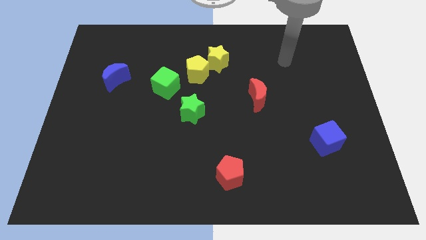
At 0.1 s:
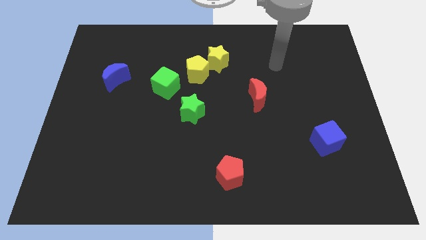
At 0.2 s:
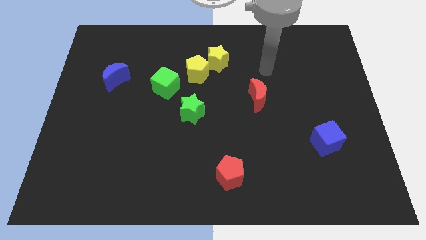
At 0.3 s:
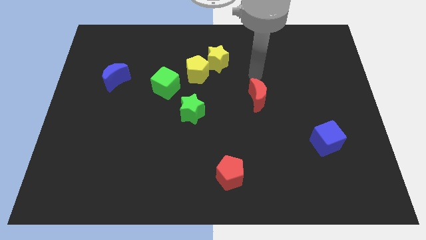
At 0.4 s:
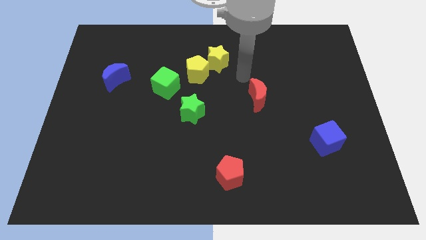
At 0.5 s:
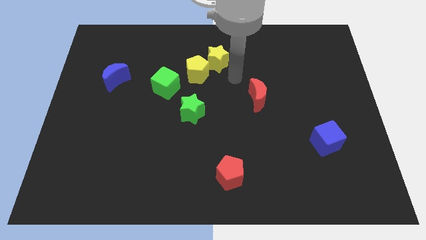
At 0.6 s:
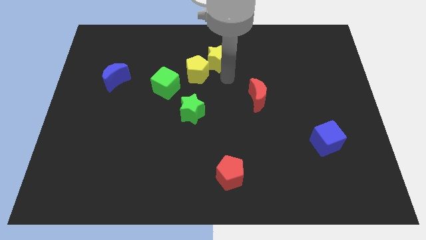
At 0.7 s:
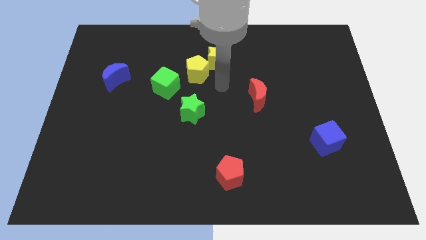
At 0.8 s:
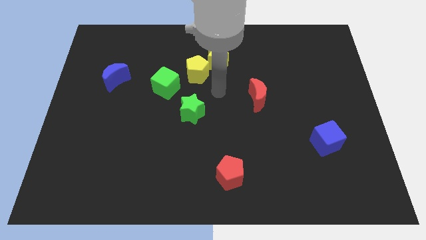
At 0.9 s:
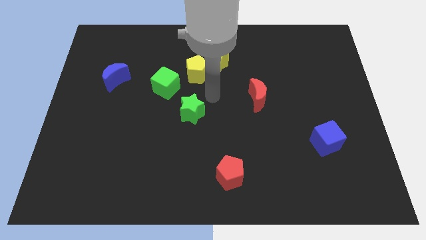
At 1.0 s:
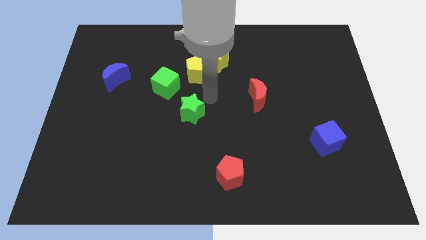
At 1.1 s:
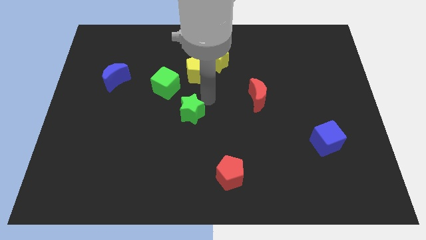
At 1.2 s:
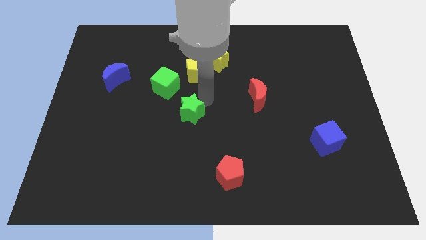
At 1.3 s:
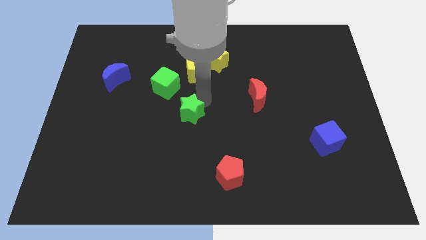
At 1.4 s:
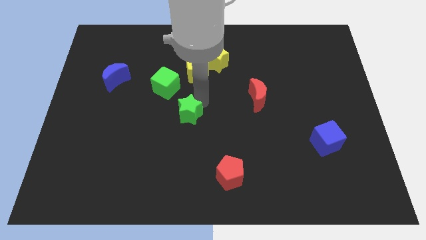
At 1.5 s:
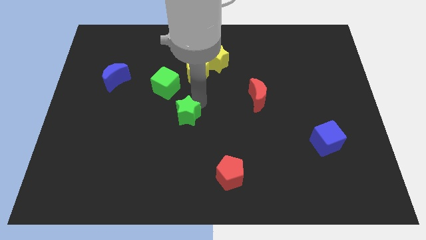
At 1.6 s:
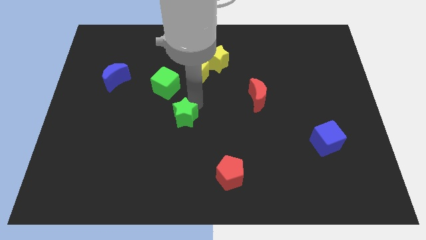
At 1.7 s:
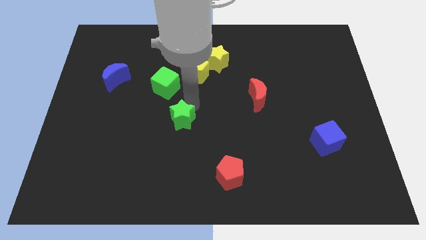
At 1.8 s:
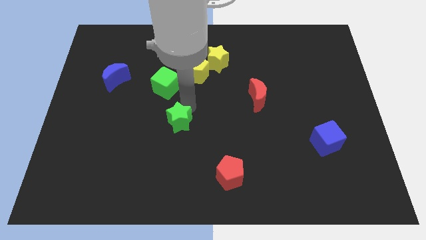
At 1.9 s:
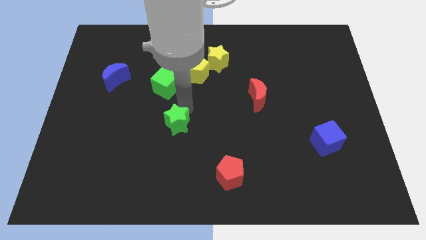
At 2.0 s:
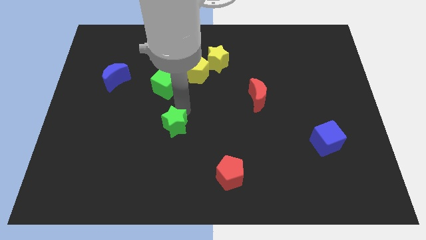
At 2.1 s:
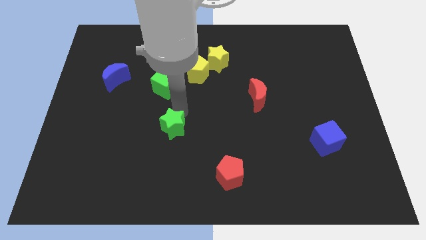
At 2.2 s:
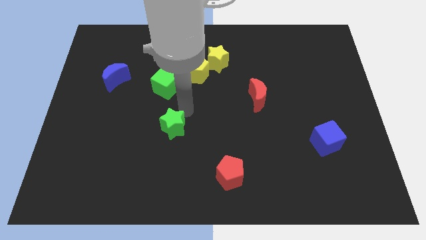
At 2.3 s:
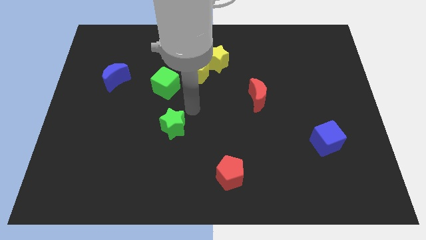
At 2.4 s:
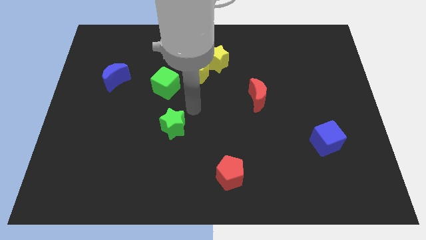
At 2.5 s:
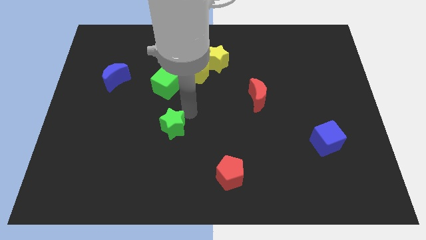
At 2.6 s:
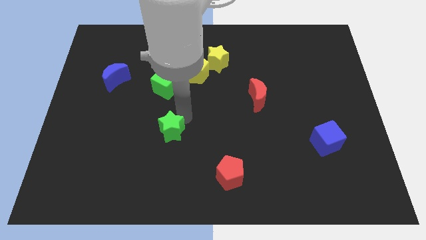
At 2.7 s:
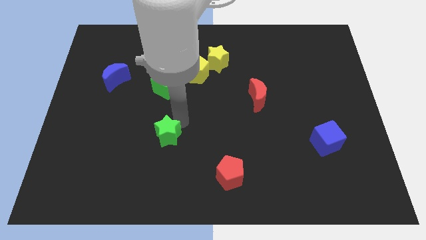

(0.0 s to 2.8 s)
slide the green star downwards and left diagonally somewhat

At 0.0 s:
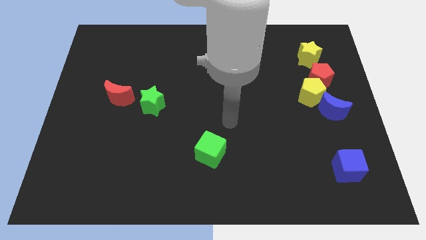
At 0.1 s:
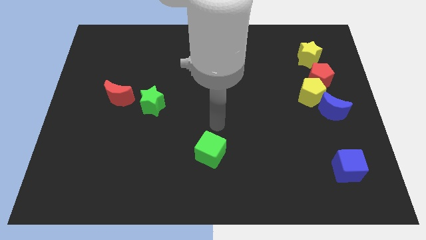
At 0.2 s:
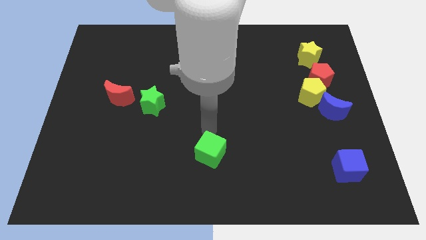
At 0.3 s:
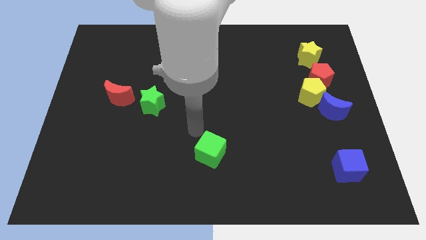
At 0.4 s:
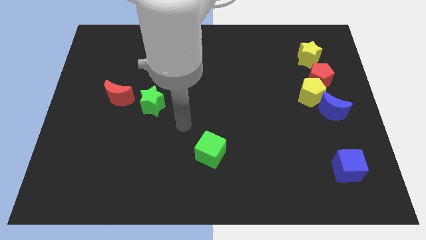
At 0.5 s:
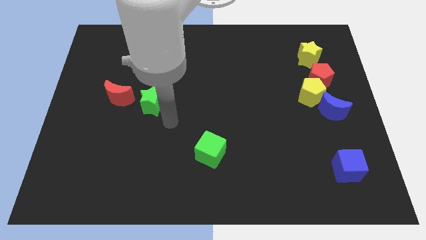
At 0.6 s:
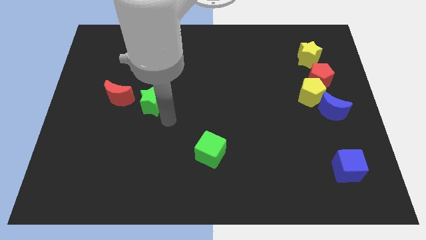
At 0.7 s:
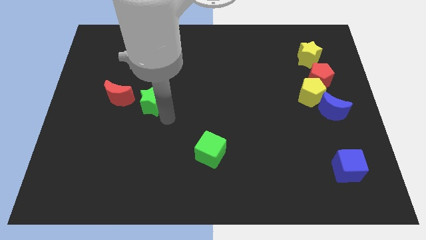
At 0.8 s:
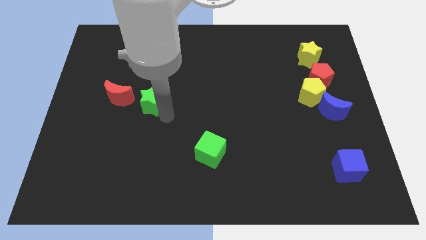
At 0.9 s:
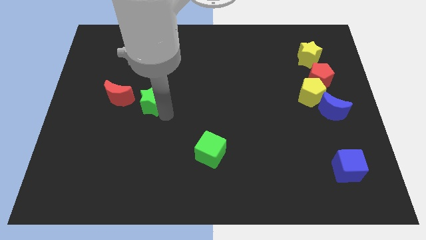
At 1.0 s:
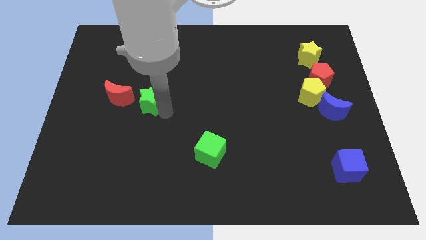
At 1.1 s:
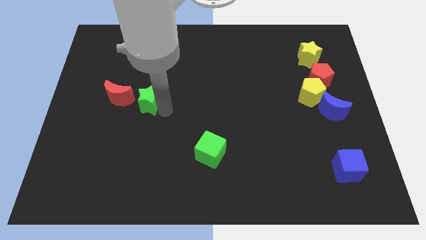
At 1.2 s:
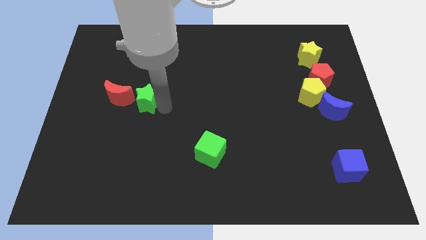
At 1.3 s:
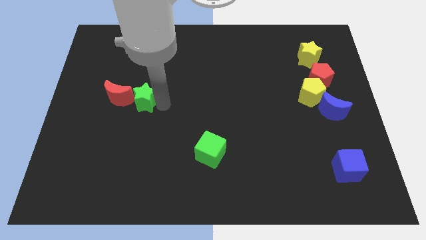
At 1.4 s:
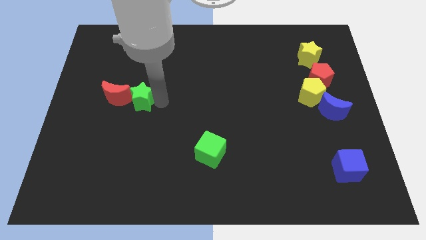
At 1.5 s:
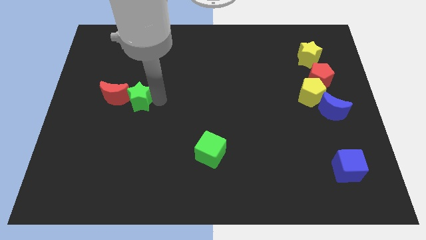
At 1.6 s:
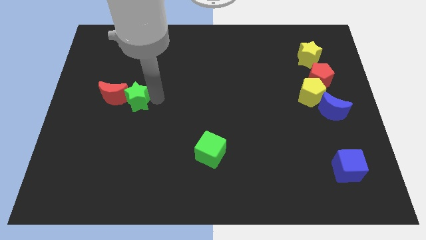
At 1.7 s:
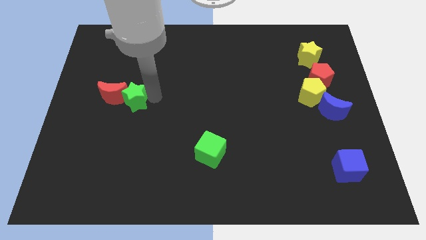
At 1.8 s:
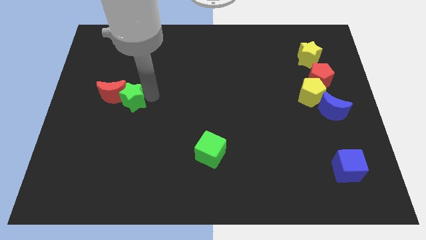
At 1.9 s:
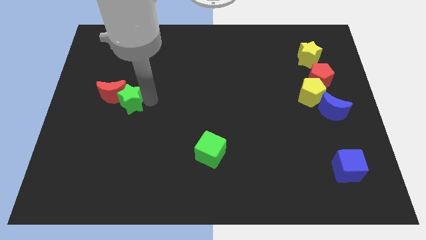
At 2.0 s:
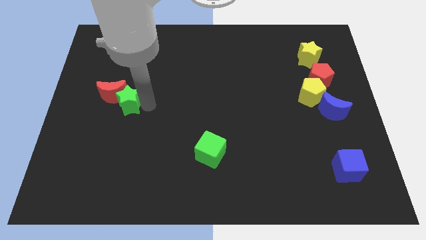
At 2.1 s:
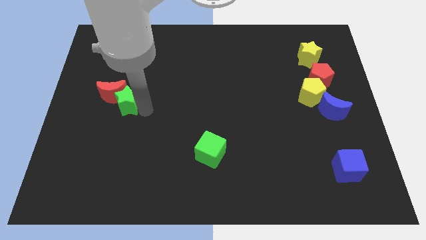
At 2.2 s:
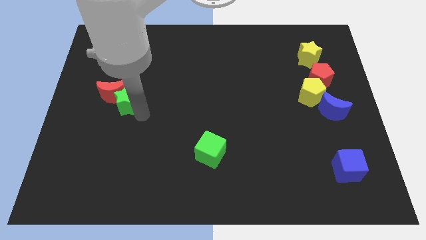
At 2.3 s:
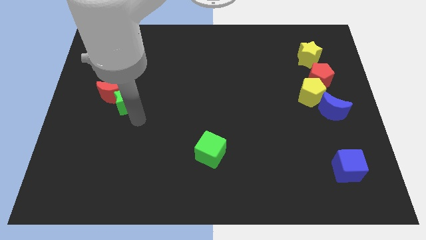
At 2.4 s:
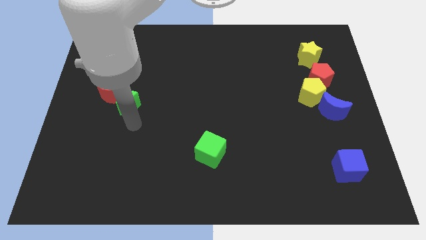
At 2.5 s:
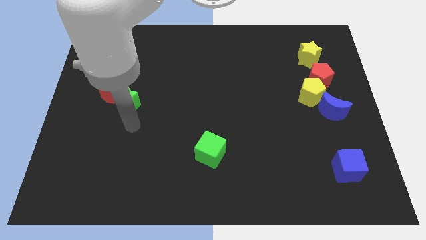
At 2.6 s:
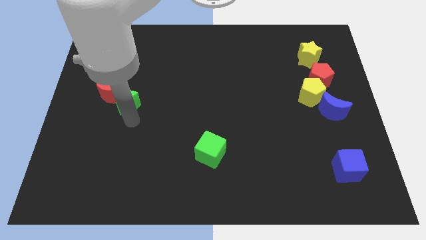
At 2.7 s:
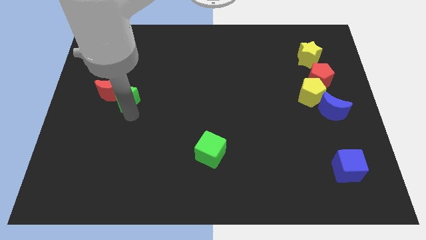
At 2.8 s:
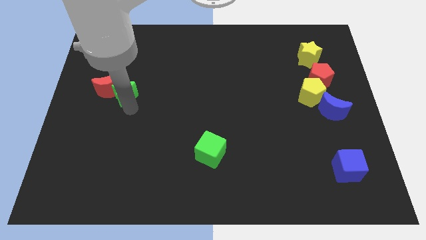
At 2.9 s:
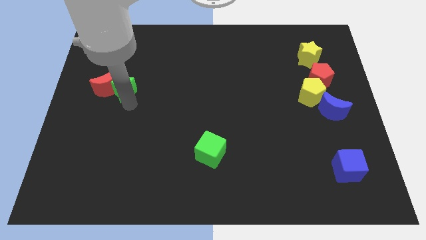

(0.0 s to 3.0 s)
slide the green star a little upwards and left diagonally

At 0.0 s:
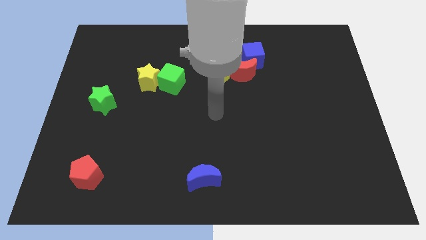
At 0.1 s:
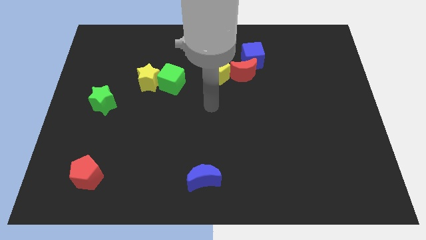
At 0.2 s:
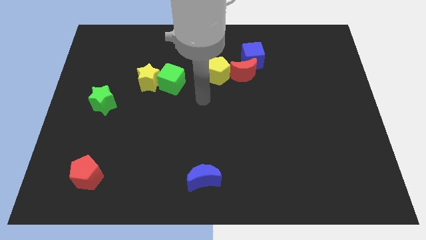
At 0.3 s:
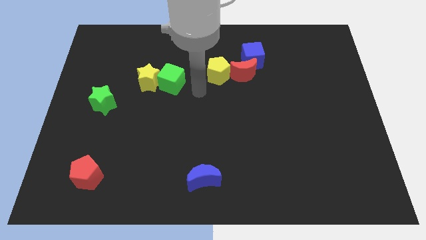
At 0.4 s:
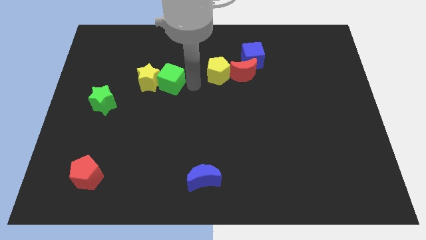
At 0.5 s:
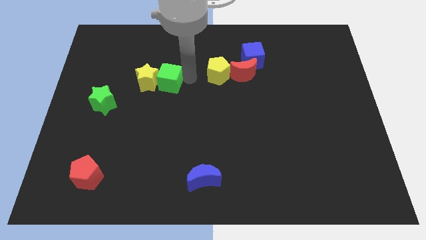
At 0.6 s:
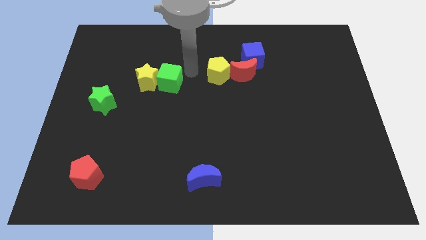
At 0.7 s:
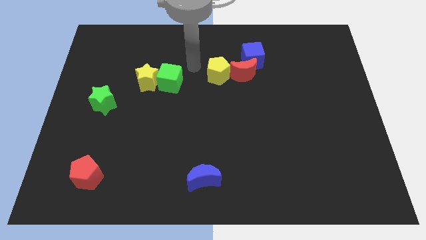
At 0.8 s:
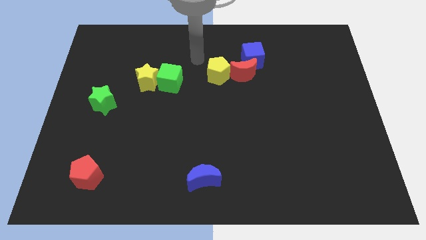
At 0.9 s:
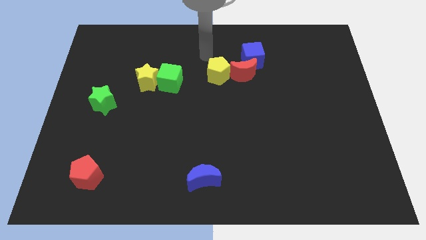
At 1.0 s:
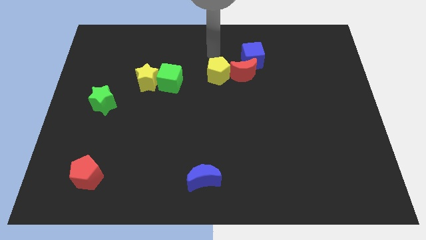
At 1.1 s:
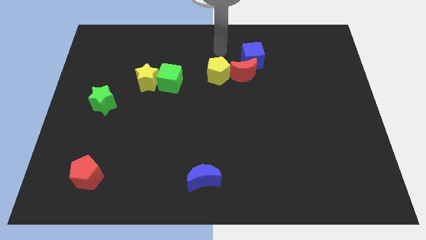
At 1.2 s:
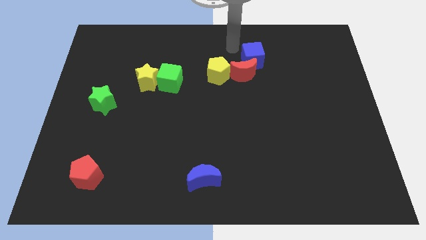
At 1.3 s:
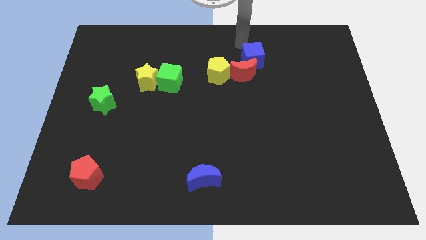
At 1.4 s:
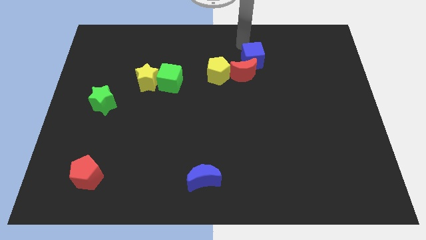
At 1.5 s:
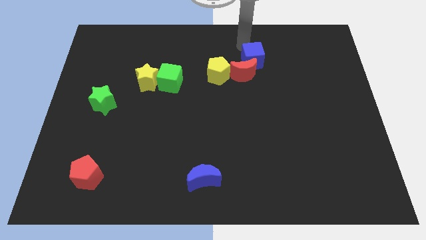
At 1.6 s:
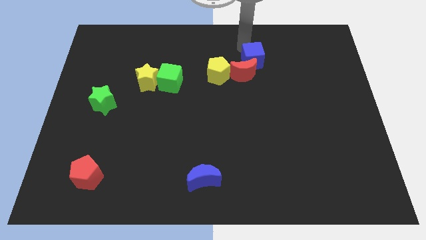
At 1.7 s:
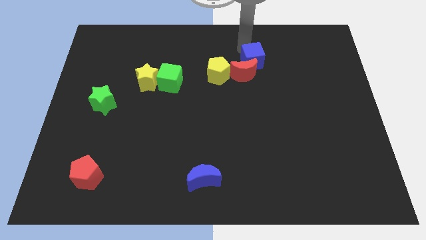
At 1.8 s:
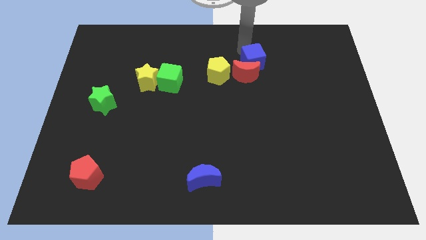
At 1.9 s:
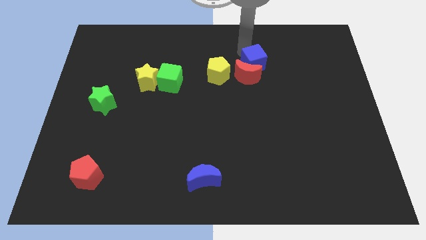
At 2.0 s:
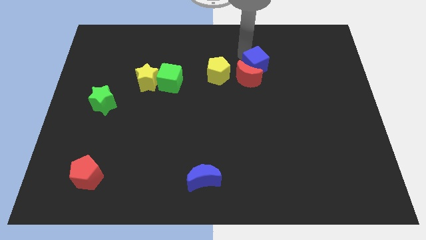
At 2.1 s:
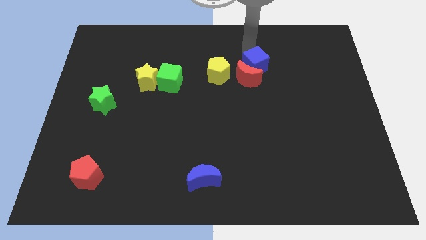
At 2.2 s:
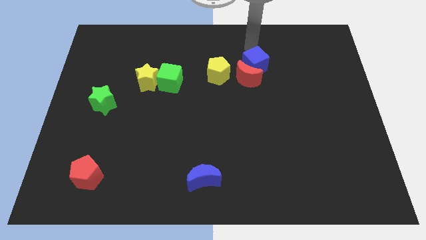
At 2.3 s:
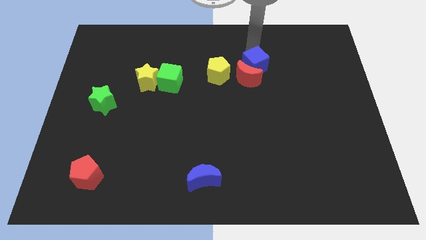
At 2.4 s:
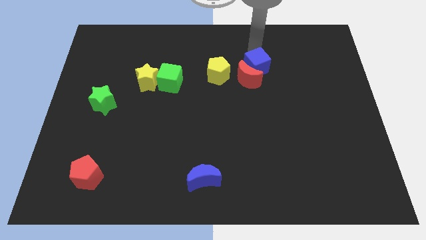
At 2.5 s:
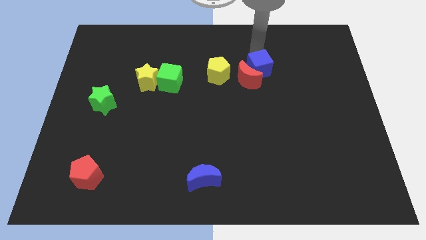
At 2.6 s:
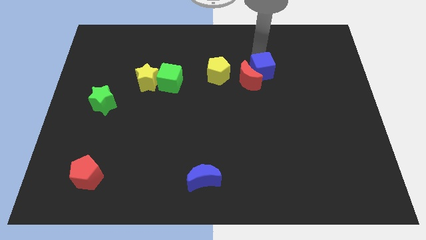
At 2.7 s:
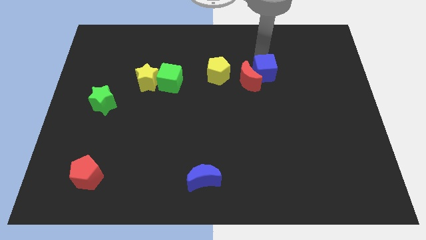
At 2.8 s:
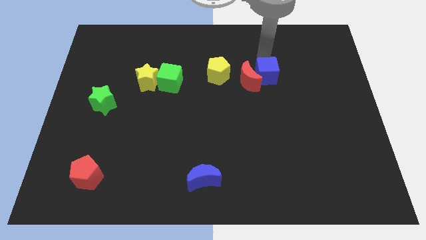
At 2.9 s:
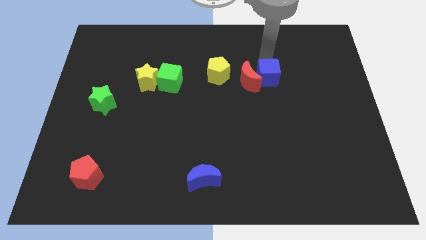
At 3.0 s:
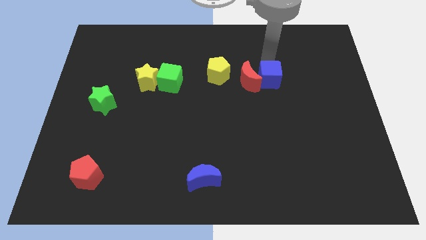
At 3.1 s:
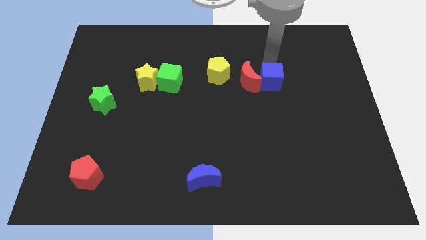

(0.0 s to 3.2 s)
slide the blue cube downwards a little bit
